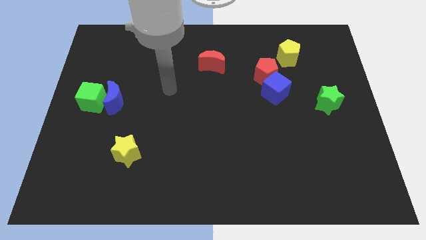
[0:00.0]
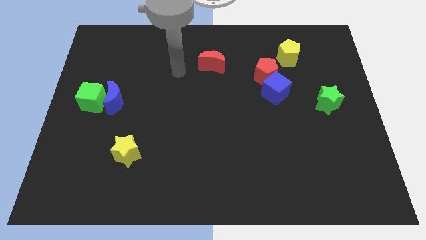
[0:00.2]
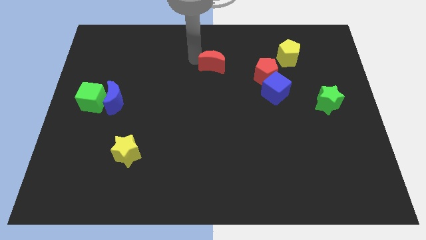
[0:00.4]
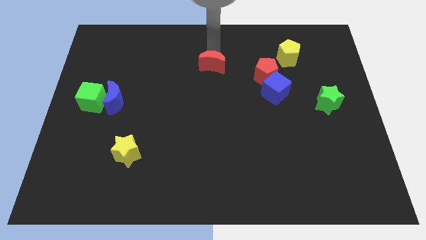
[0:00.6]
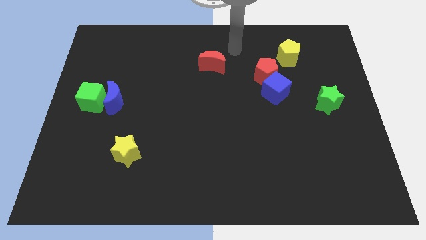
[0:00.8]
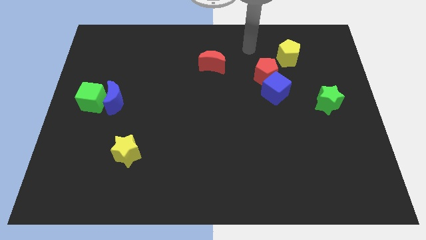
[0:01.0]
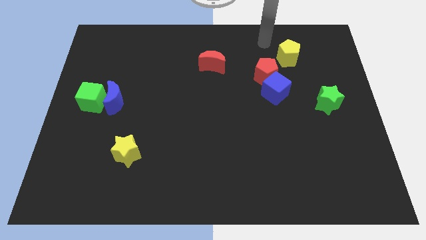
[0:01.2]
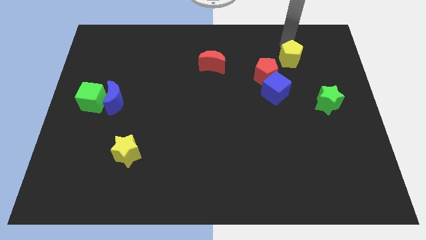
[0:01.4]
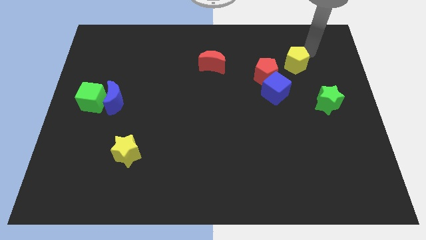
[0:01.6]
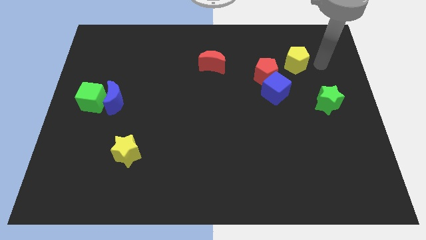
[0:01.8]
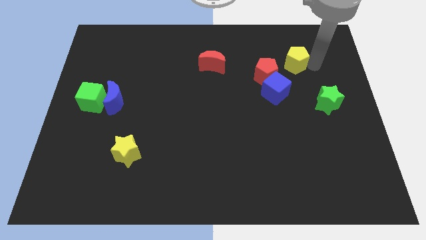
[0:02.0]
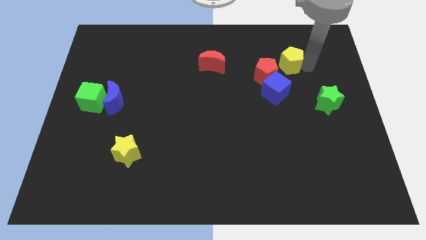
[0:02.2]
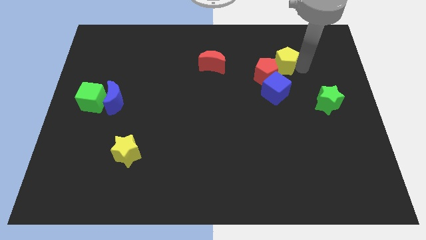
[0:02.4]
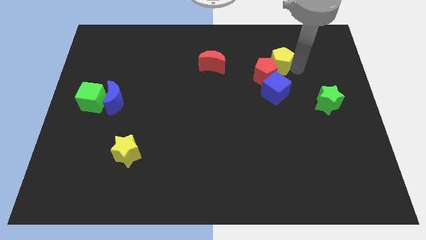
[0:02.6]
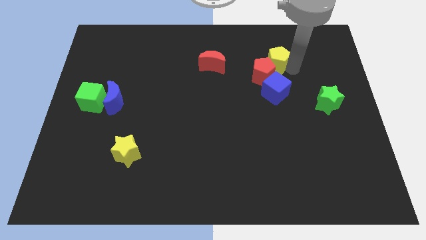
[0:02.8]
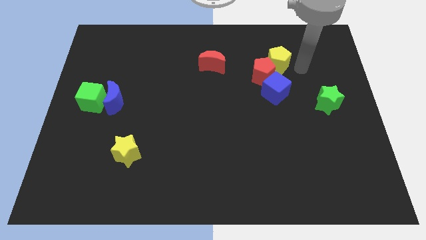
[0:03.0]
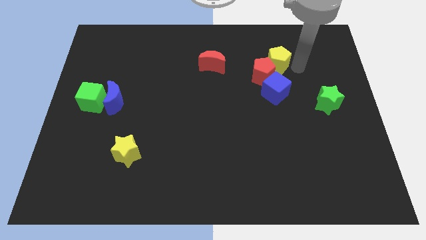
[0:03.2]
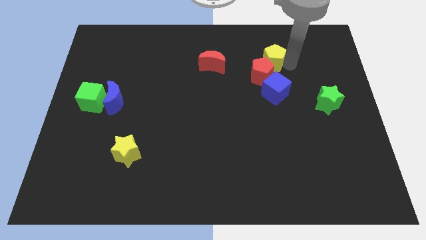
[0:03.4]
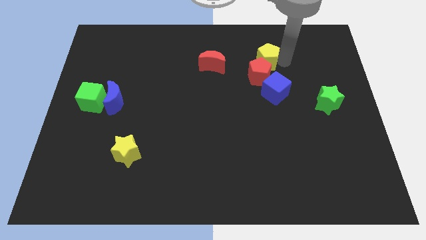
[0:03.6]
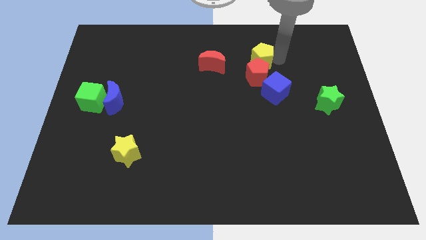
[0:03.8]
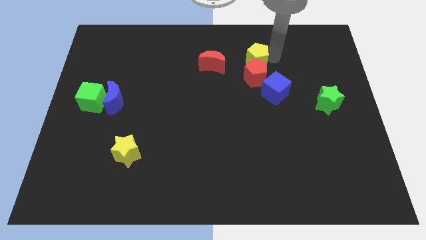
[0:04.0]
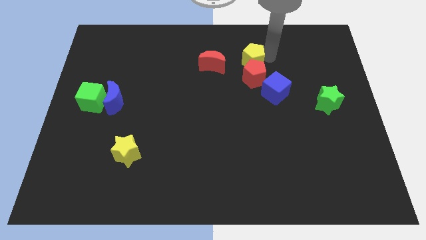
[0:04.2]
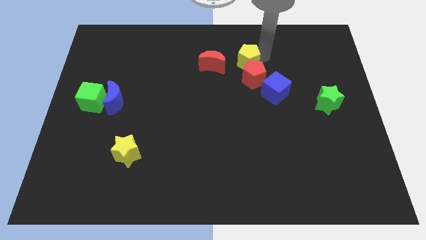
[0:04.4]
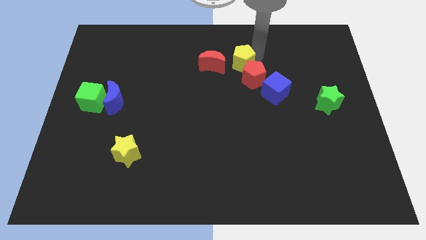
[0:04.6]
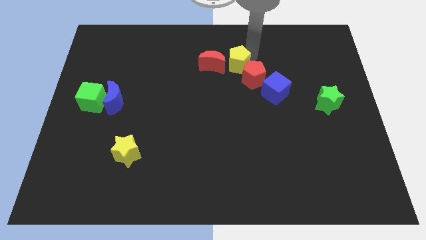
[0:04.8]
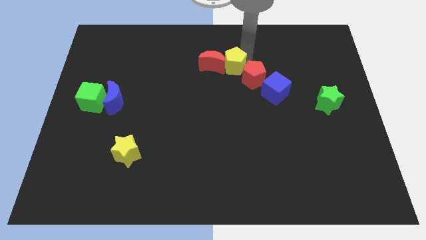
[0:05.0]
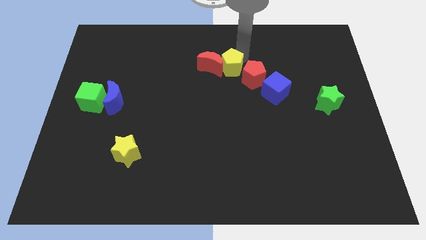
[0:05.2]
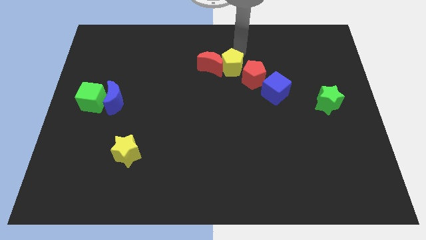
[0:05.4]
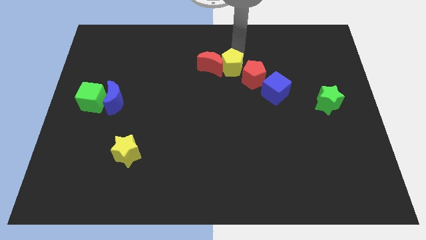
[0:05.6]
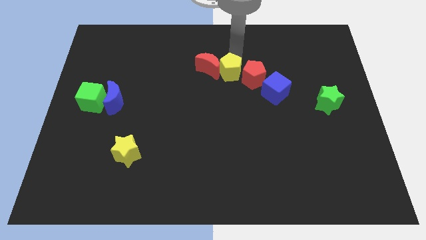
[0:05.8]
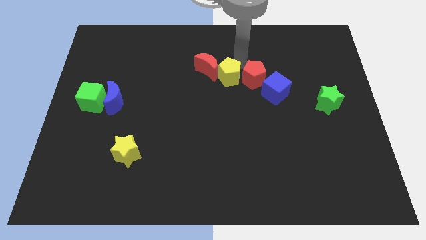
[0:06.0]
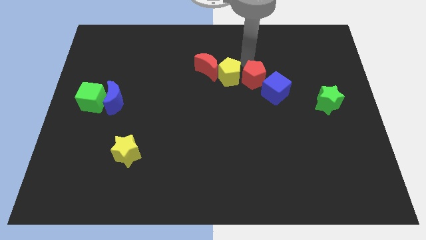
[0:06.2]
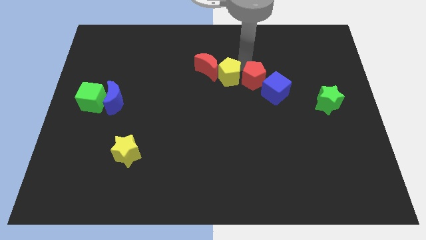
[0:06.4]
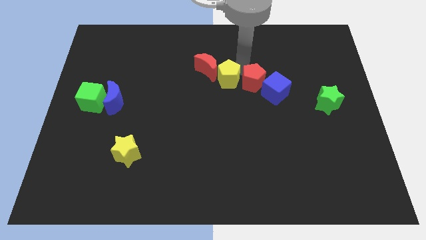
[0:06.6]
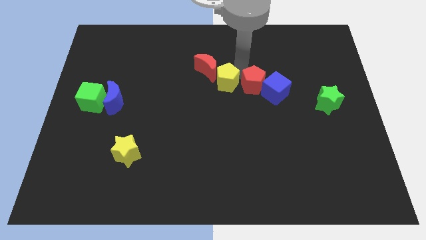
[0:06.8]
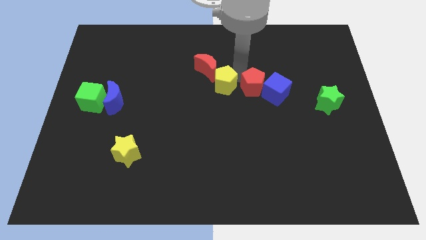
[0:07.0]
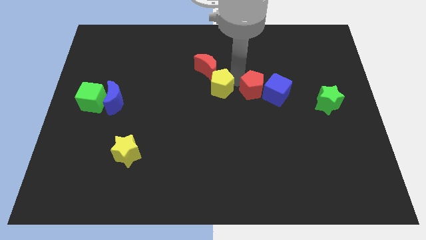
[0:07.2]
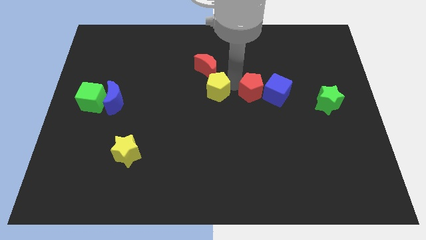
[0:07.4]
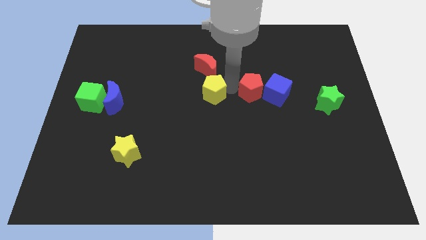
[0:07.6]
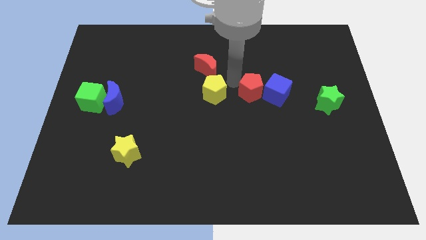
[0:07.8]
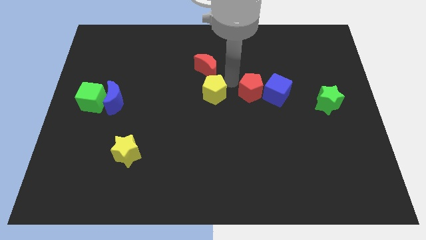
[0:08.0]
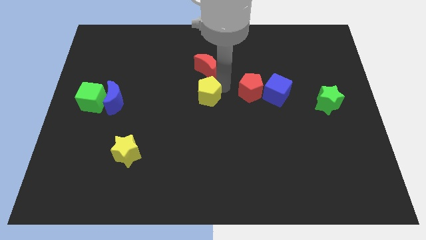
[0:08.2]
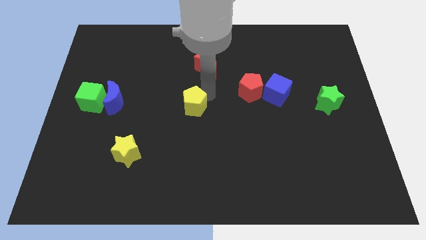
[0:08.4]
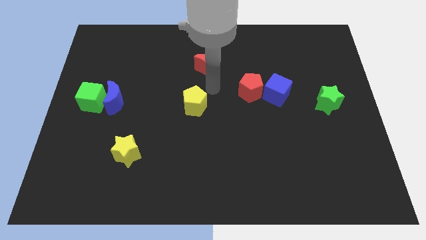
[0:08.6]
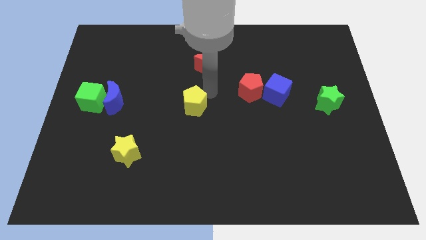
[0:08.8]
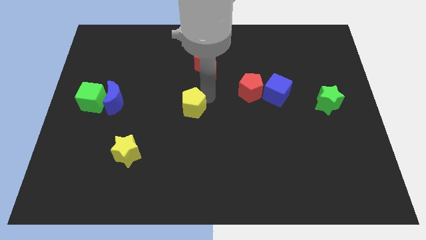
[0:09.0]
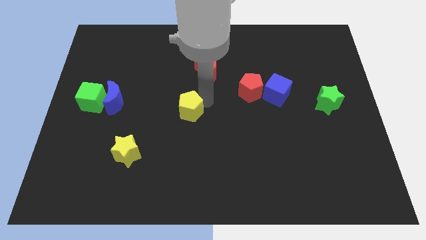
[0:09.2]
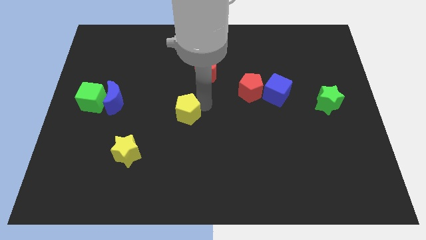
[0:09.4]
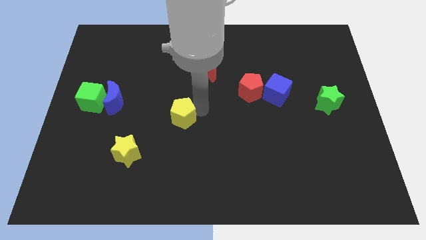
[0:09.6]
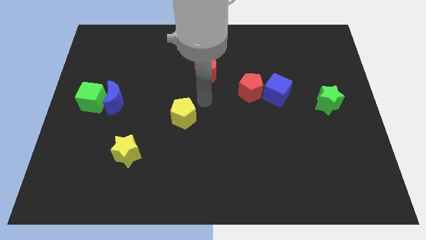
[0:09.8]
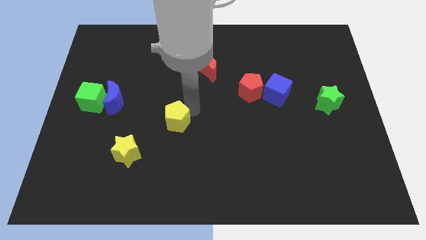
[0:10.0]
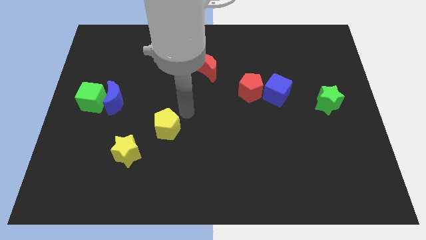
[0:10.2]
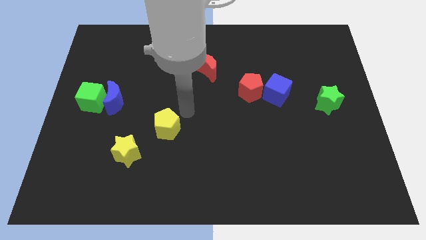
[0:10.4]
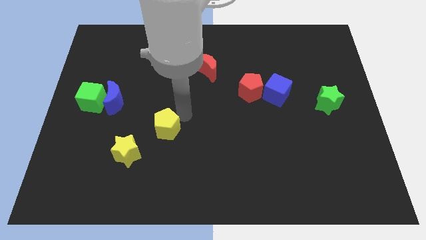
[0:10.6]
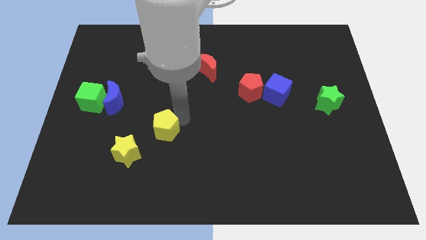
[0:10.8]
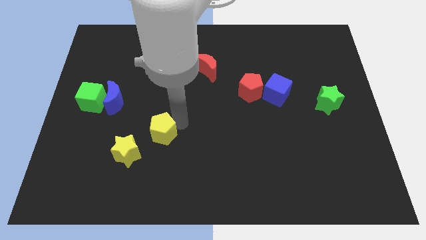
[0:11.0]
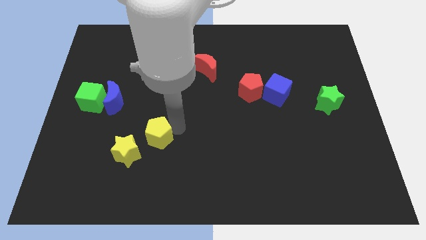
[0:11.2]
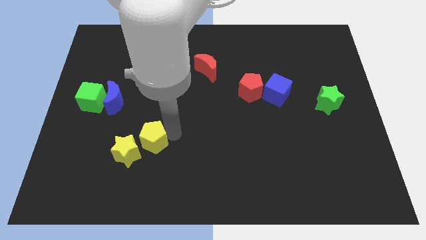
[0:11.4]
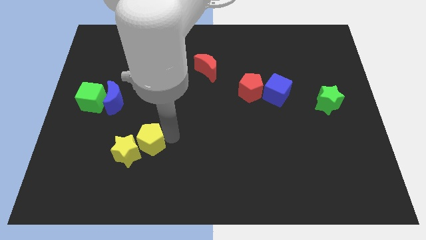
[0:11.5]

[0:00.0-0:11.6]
move the yellow pentagon towards the yellow star

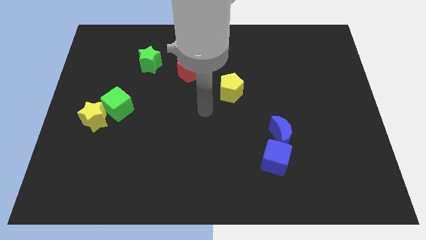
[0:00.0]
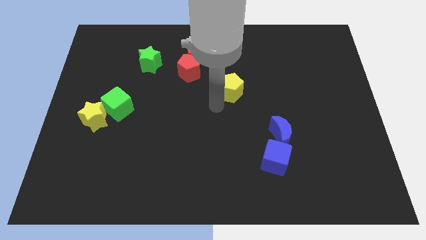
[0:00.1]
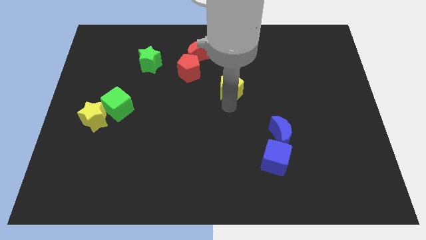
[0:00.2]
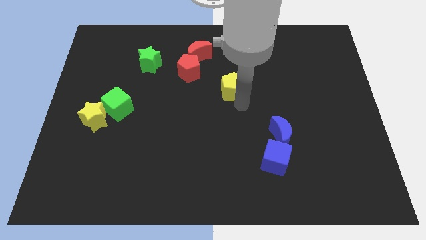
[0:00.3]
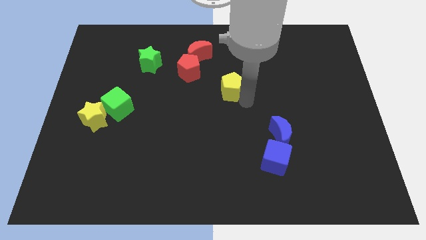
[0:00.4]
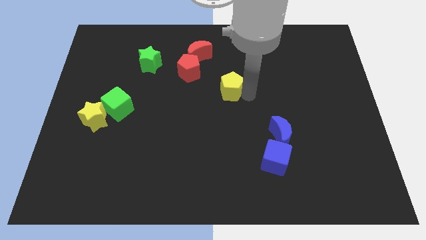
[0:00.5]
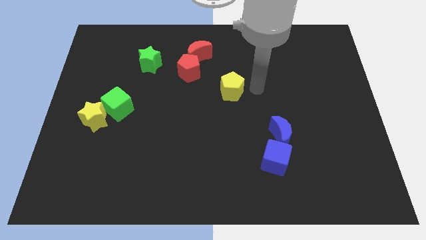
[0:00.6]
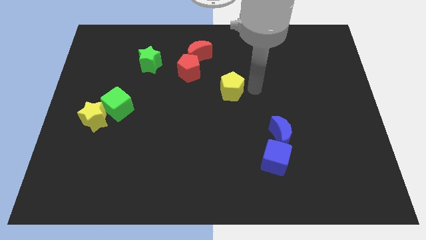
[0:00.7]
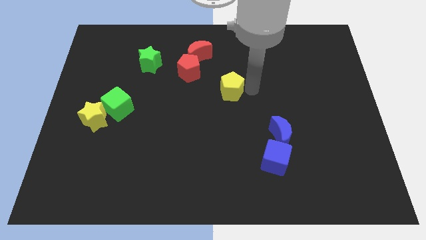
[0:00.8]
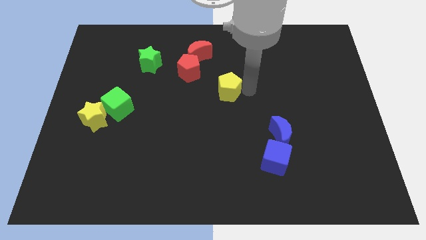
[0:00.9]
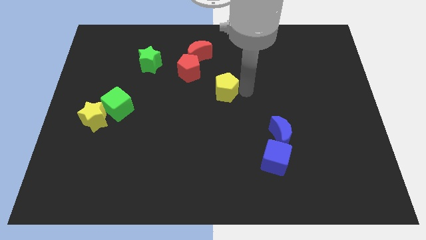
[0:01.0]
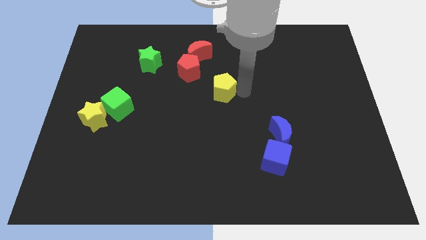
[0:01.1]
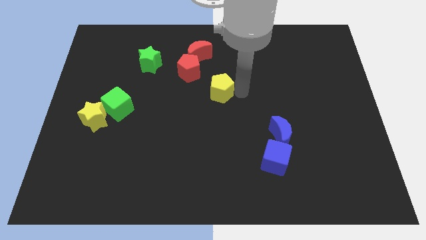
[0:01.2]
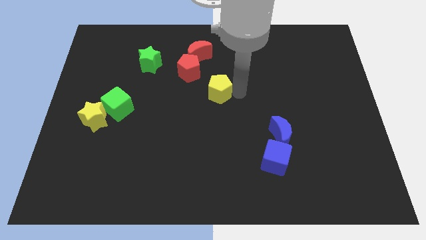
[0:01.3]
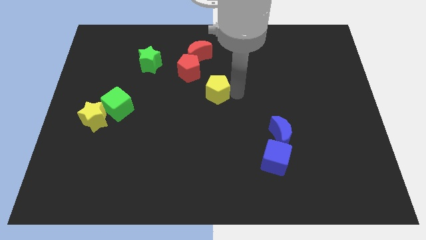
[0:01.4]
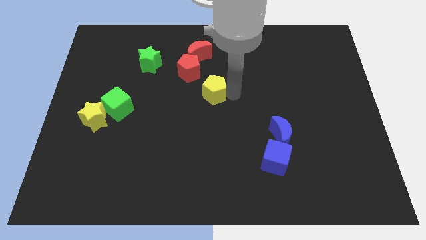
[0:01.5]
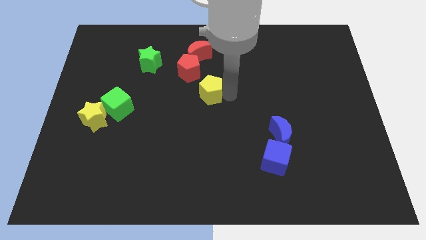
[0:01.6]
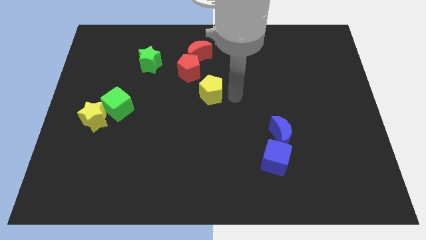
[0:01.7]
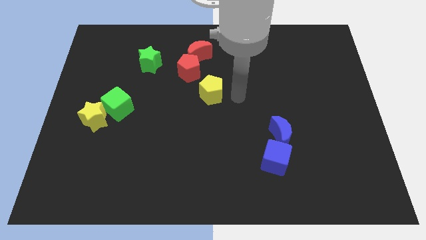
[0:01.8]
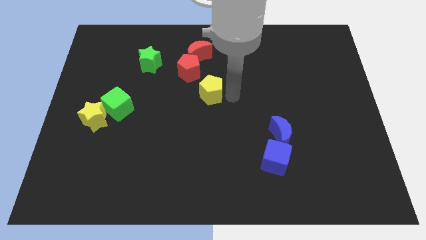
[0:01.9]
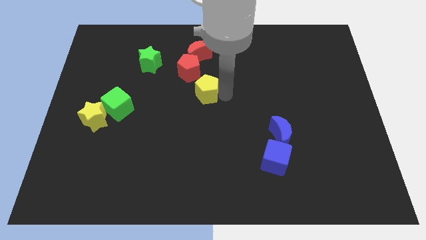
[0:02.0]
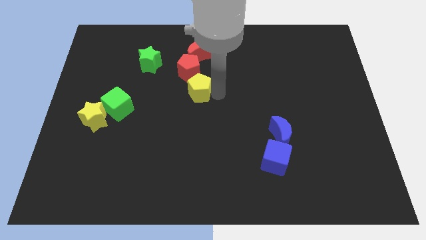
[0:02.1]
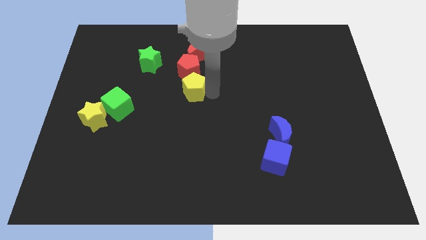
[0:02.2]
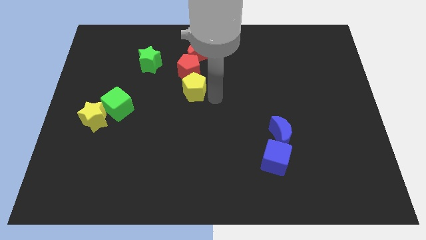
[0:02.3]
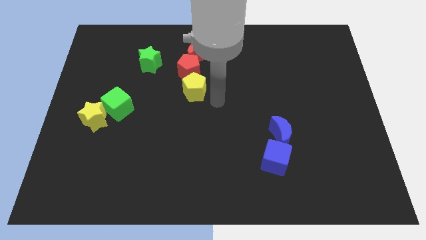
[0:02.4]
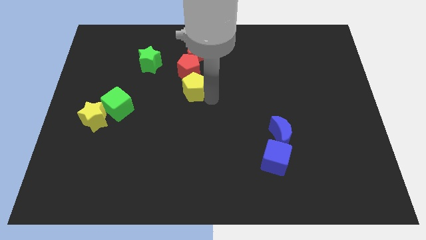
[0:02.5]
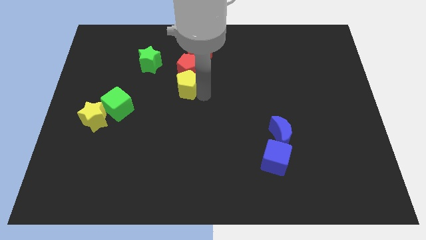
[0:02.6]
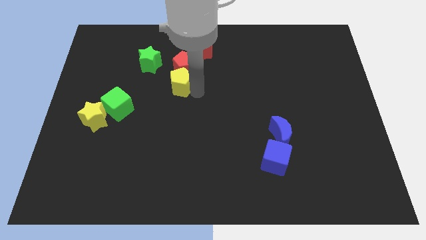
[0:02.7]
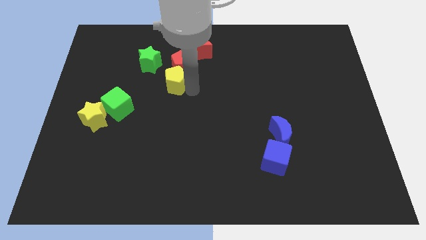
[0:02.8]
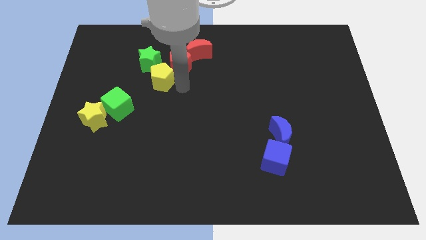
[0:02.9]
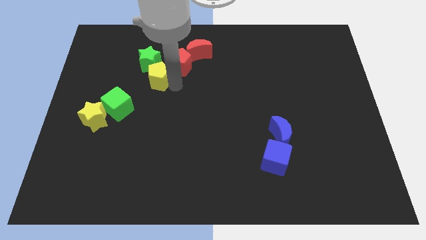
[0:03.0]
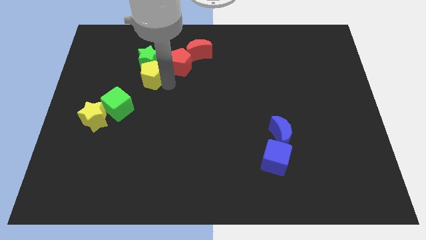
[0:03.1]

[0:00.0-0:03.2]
move the yellow pentagon next to the green star
